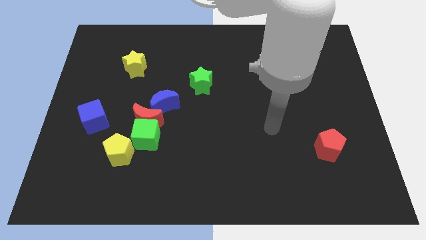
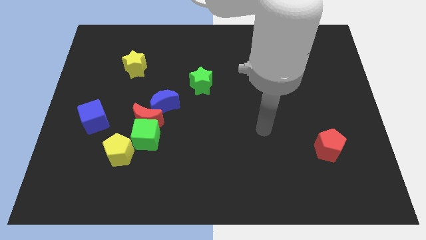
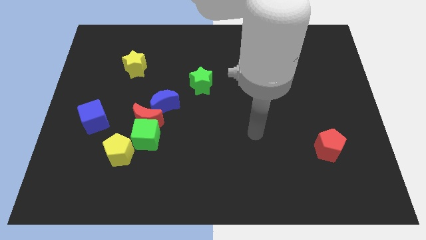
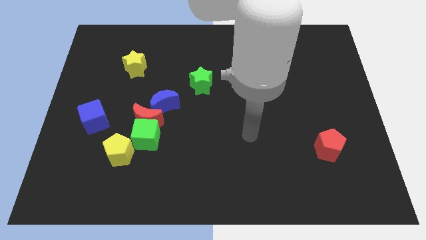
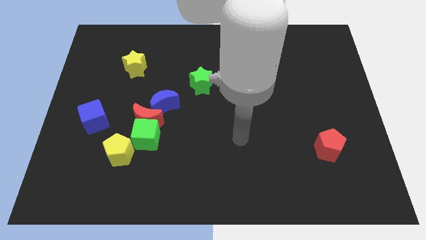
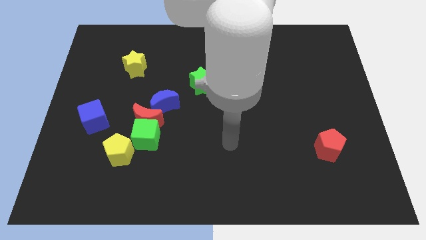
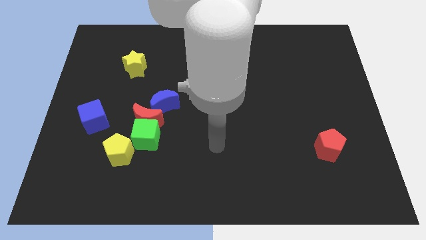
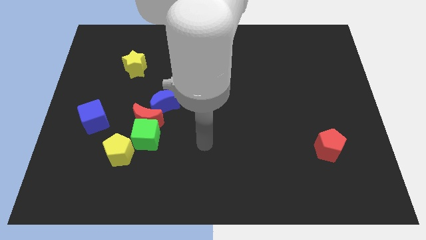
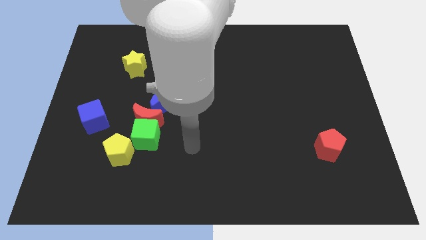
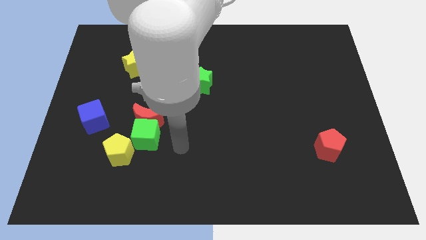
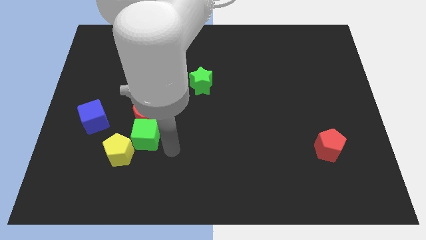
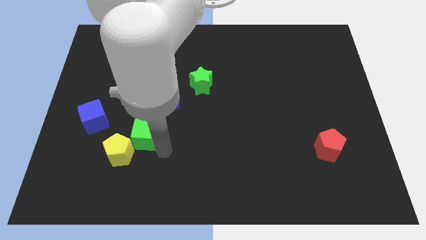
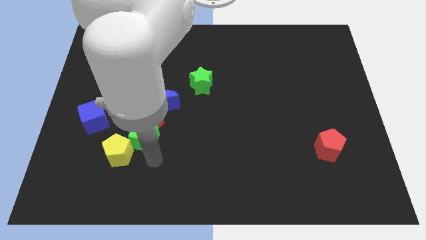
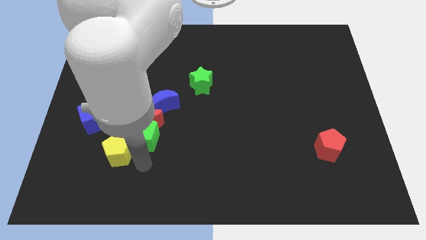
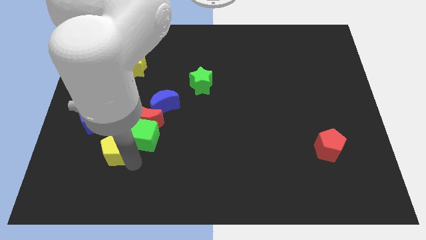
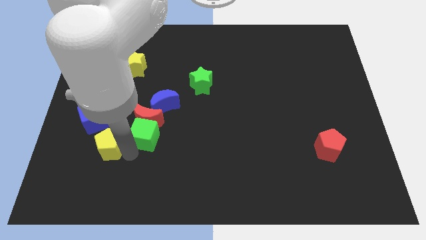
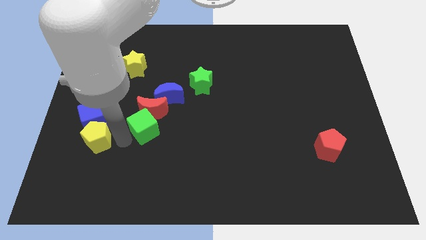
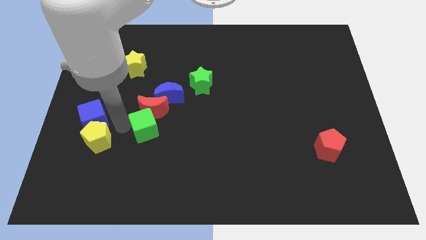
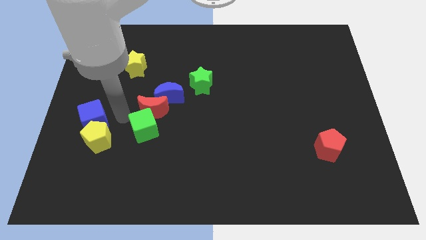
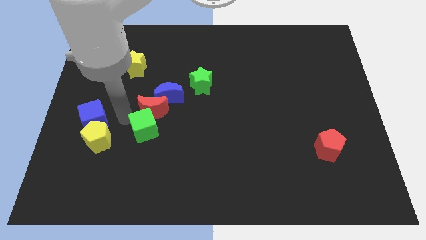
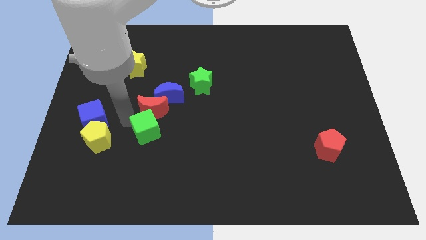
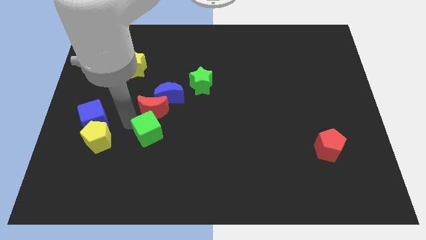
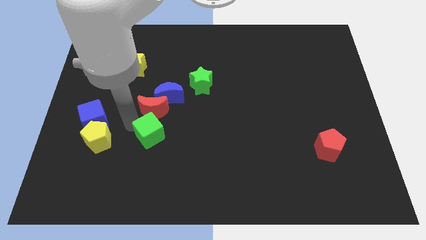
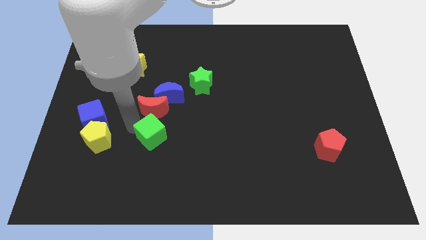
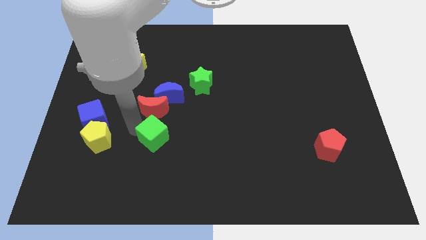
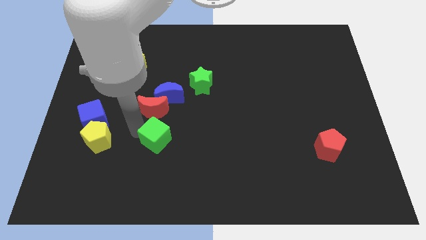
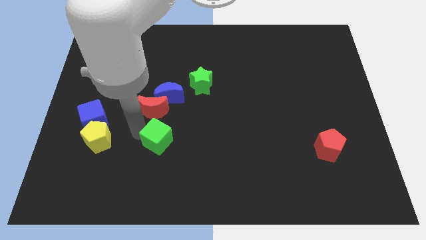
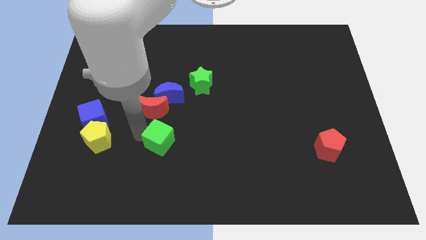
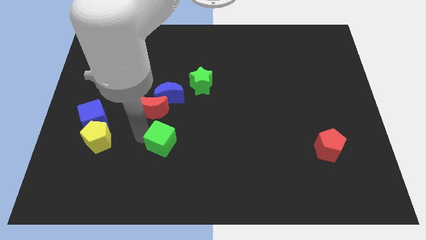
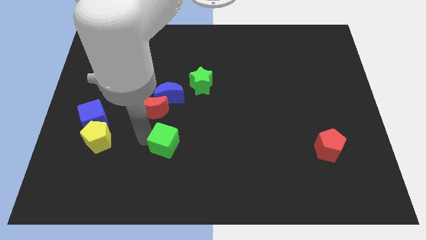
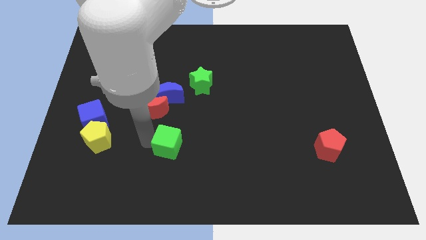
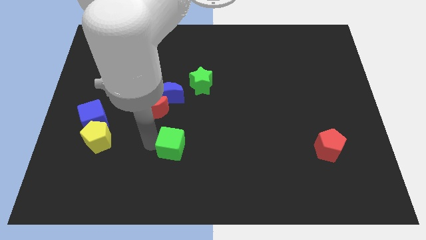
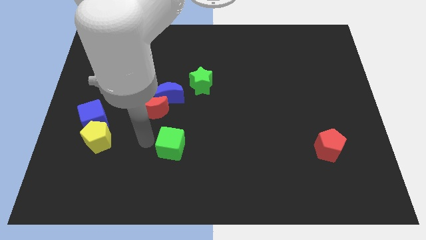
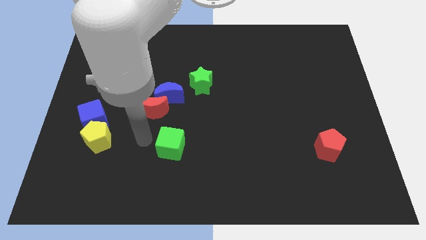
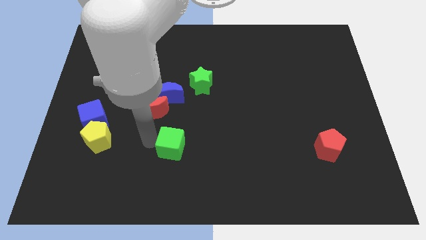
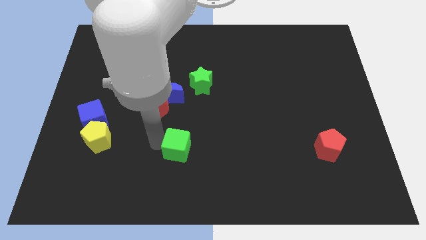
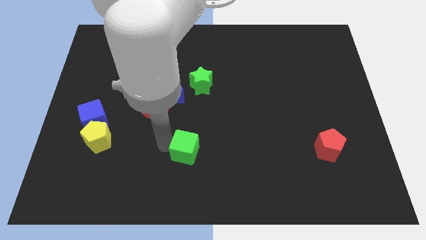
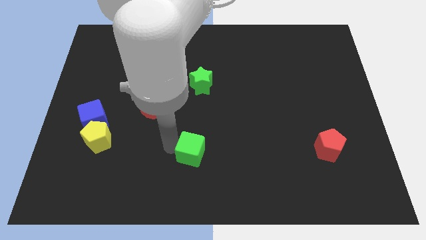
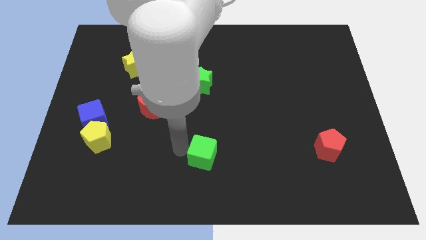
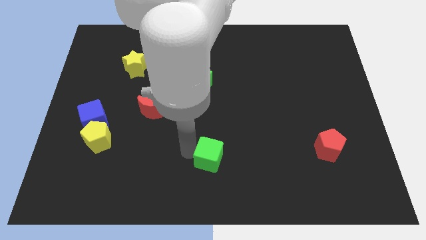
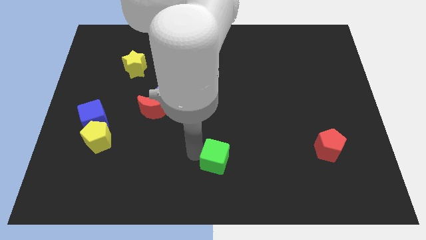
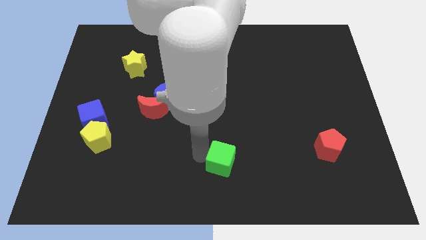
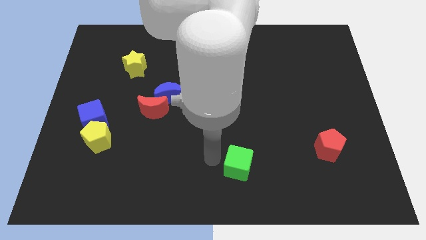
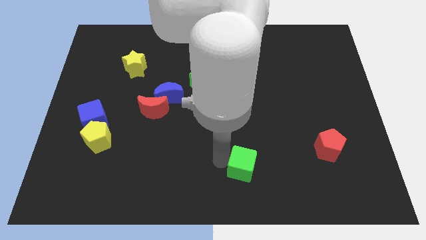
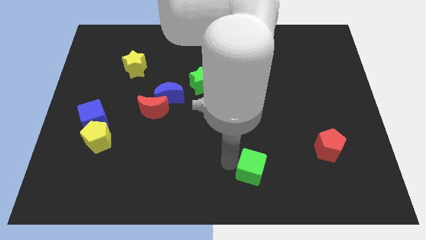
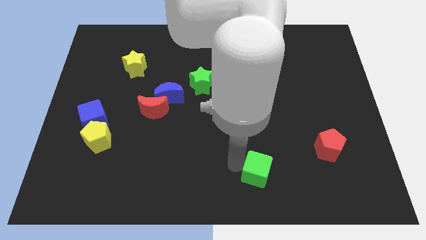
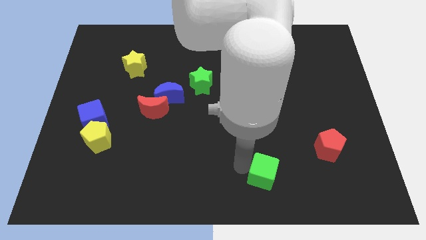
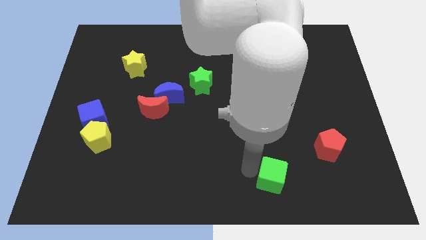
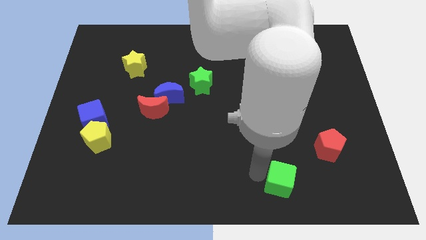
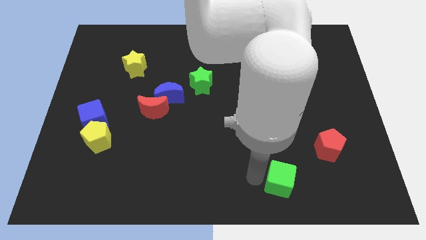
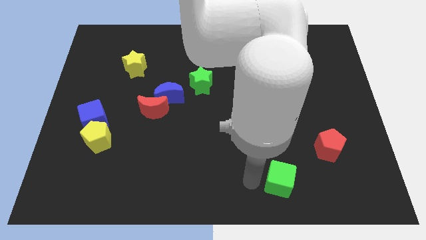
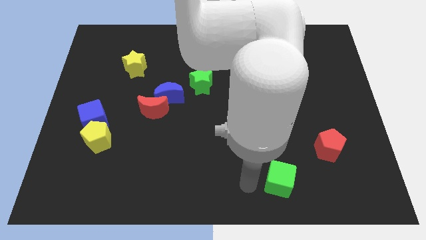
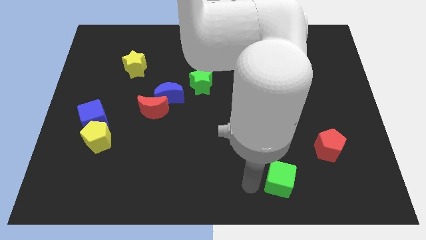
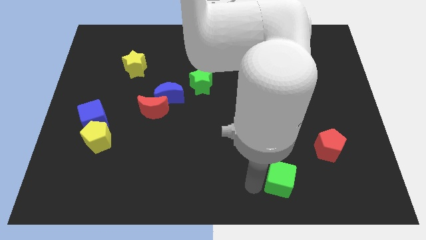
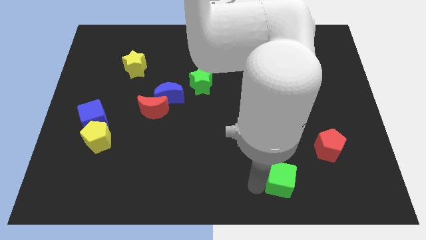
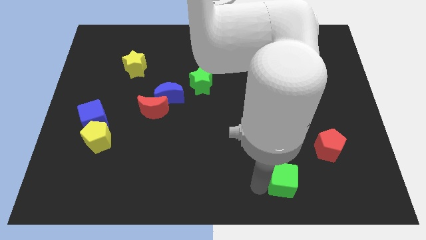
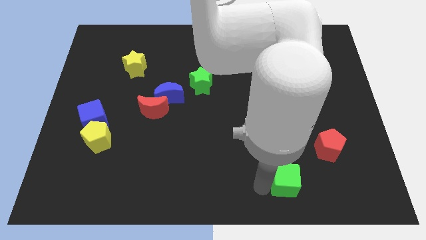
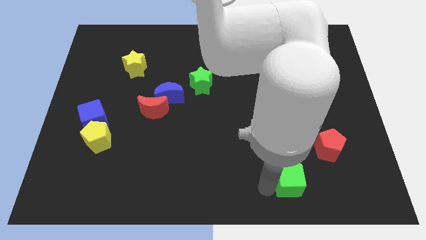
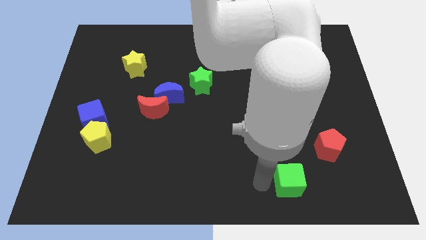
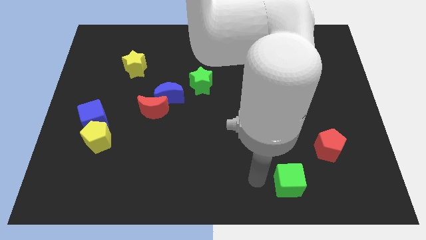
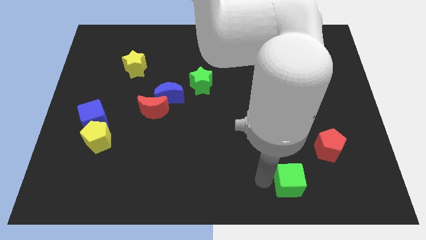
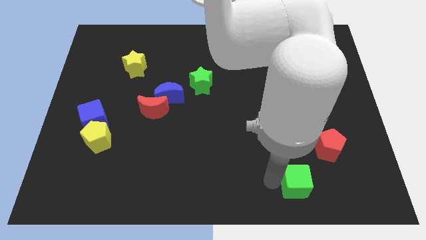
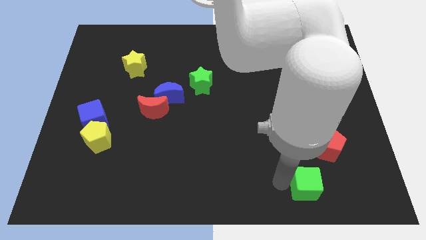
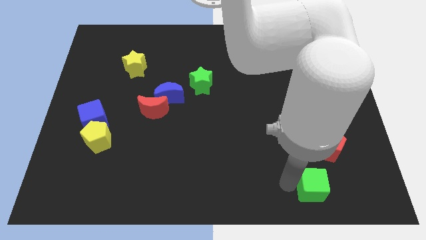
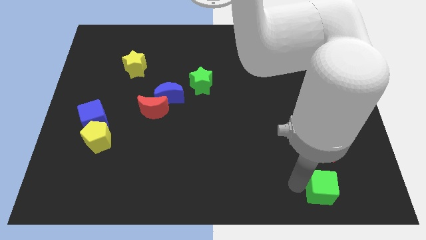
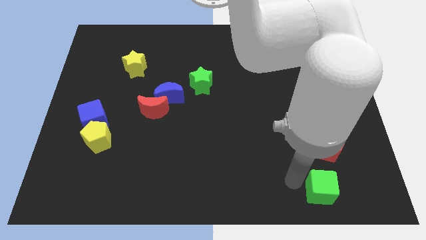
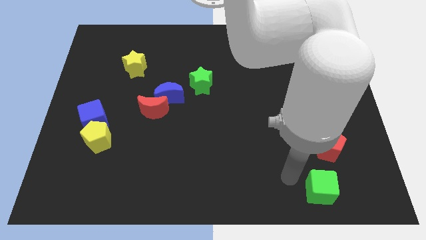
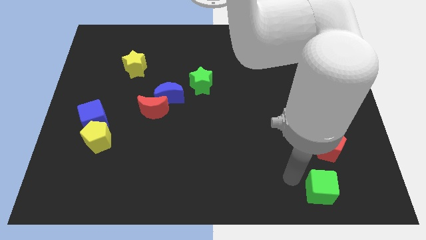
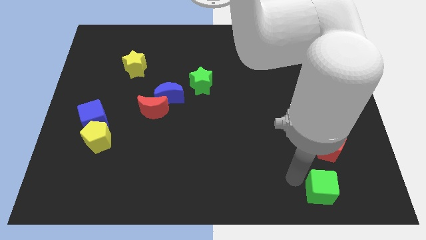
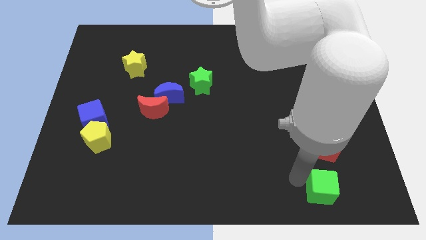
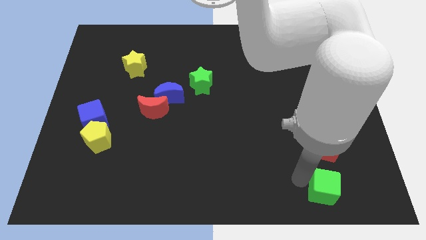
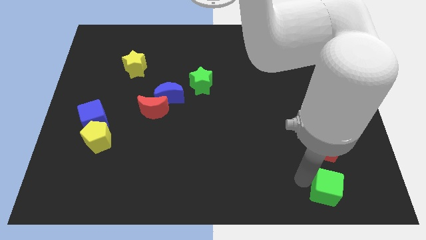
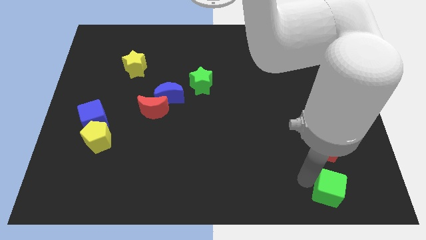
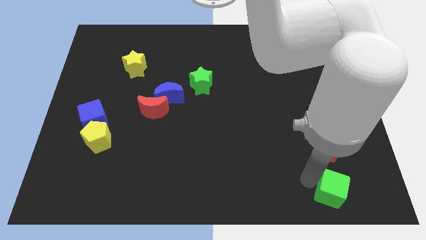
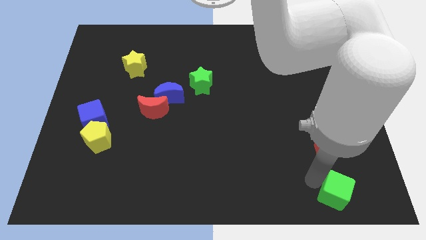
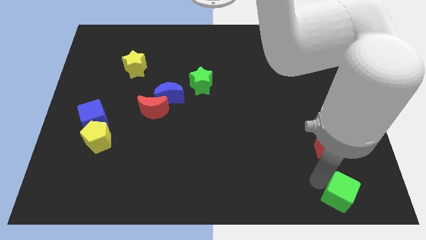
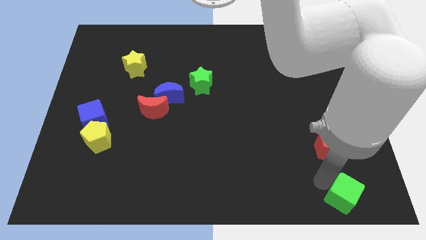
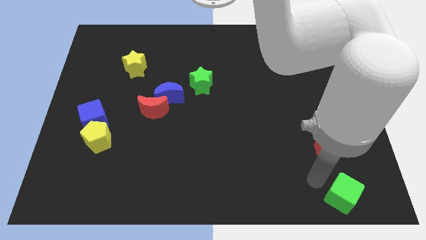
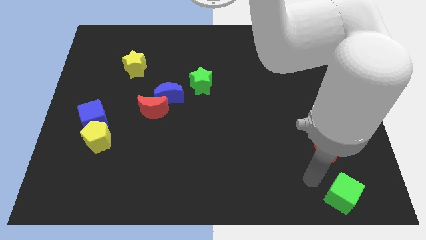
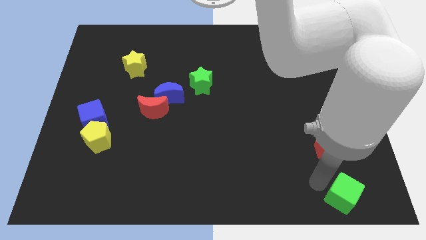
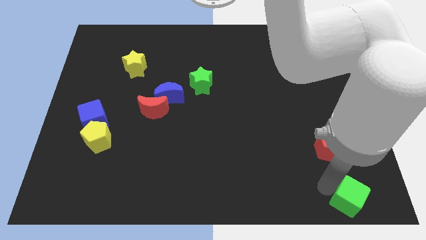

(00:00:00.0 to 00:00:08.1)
push the green cube to the bottom right corner
